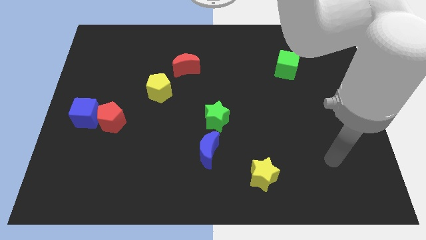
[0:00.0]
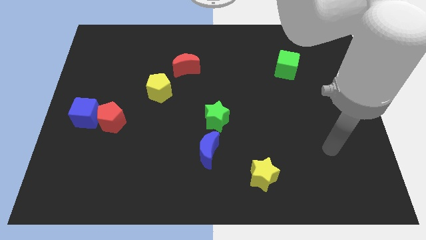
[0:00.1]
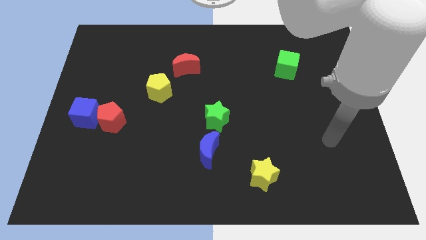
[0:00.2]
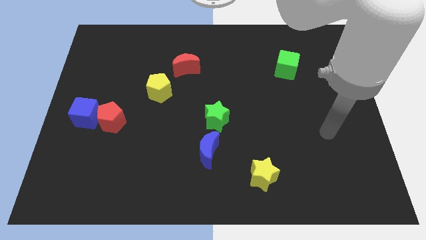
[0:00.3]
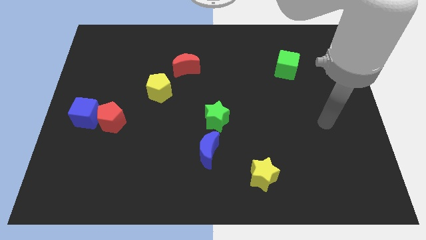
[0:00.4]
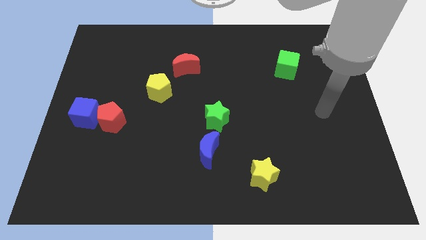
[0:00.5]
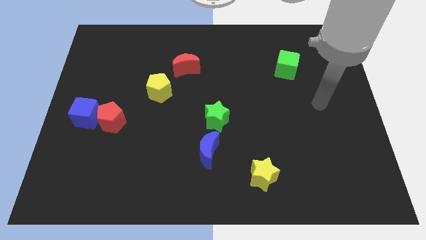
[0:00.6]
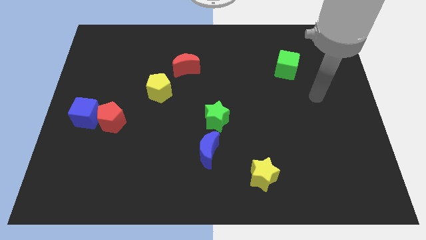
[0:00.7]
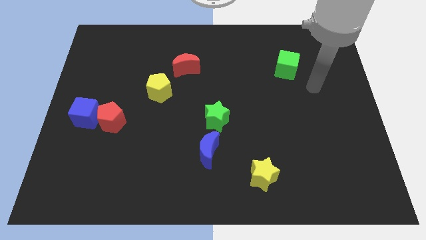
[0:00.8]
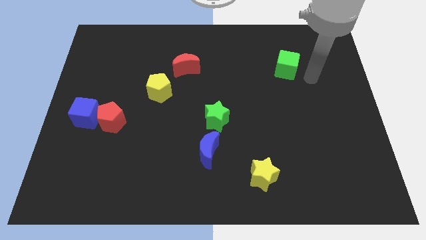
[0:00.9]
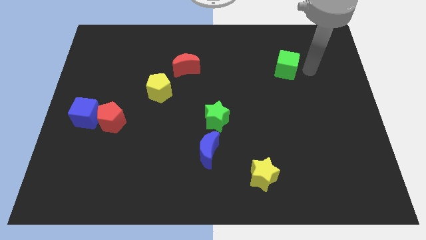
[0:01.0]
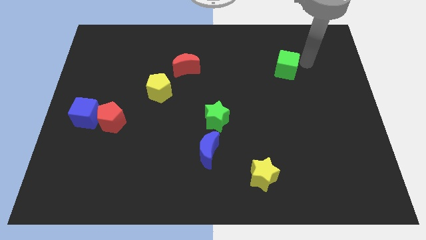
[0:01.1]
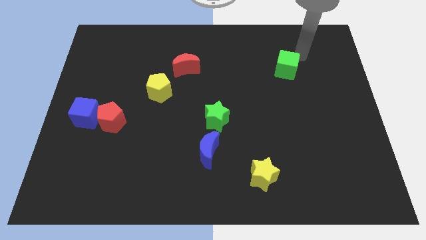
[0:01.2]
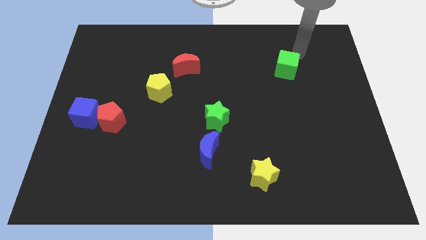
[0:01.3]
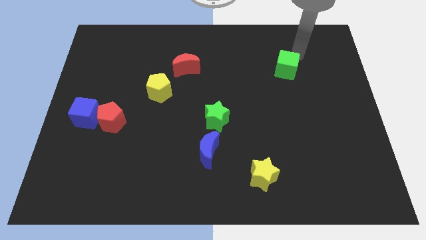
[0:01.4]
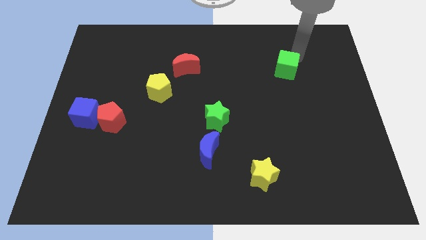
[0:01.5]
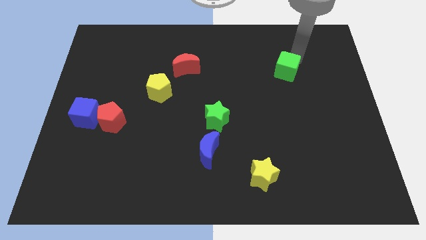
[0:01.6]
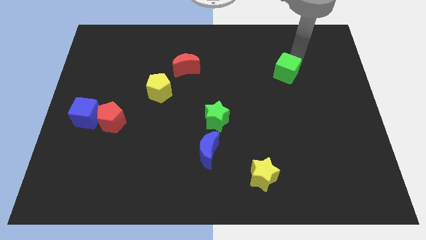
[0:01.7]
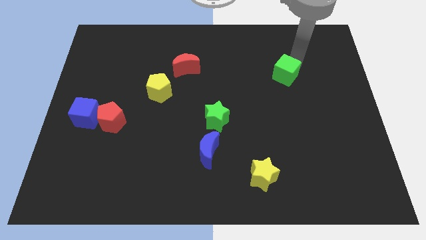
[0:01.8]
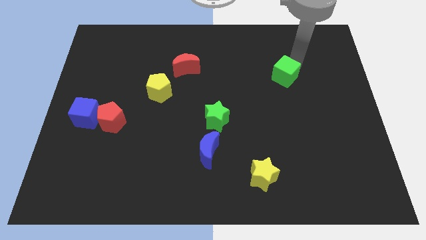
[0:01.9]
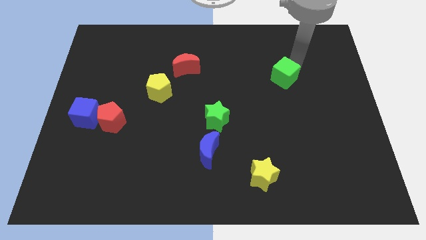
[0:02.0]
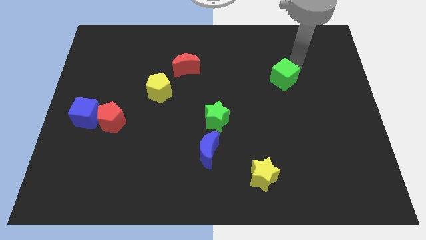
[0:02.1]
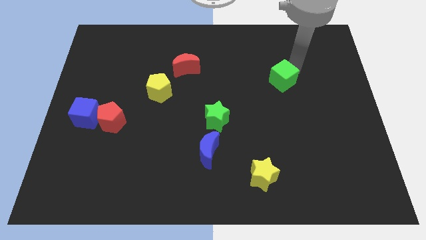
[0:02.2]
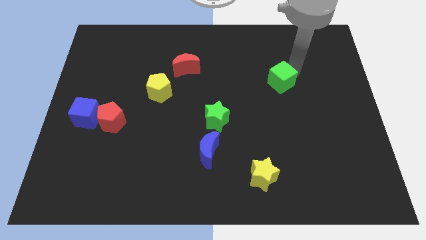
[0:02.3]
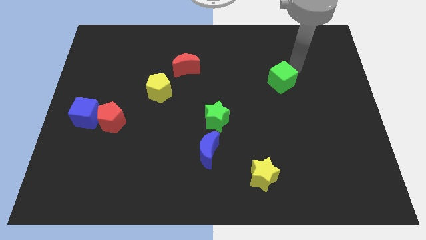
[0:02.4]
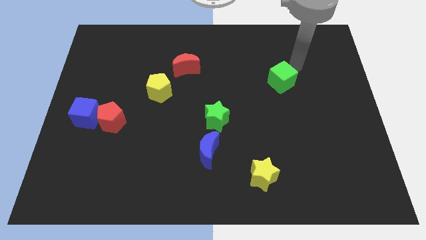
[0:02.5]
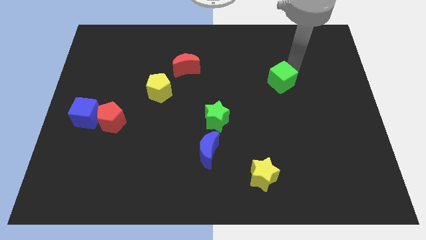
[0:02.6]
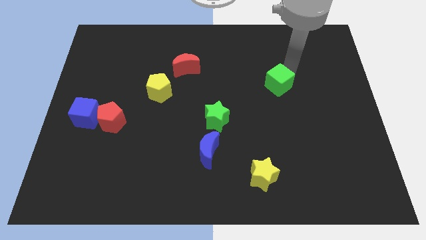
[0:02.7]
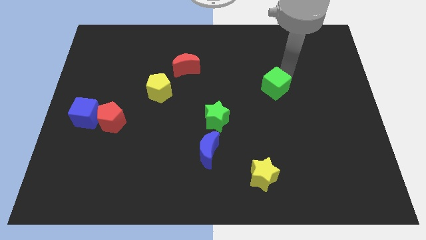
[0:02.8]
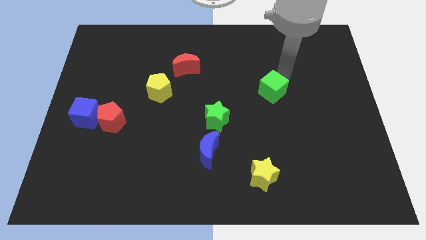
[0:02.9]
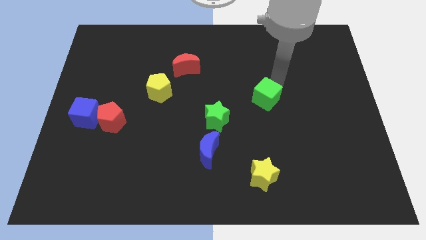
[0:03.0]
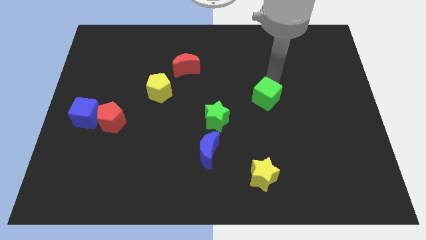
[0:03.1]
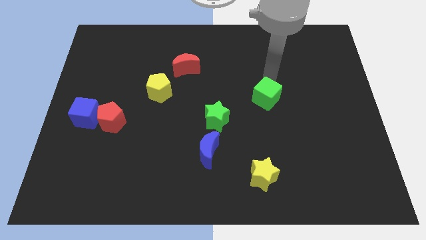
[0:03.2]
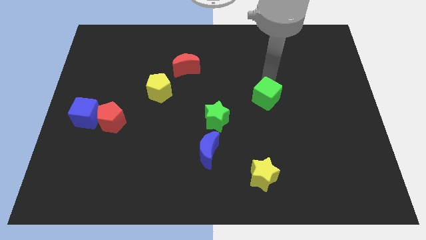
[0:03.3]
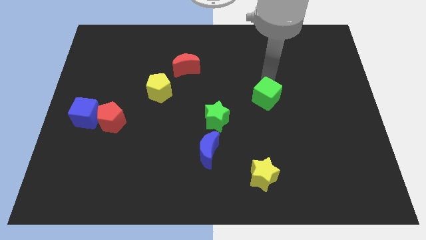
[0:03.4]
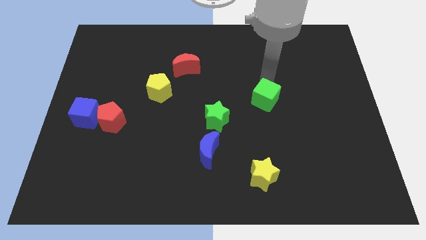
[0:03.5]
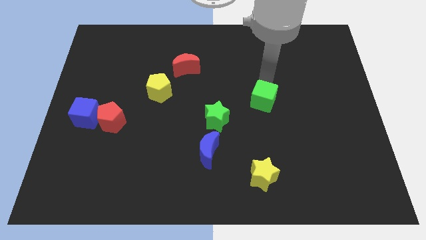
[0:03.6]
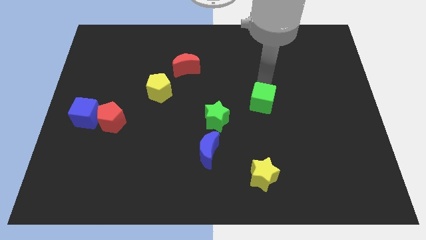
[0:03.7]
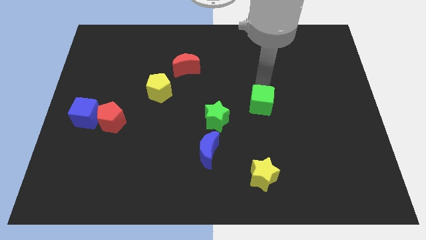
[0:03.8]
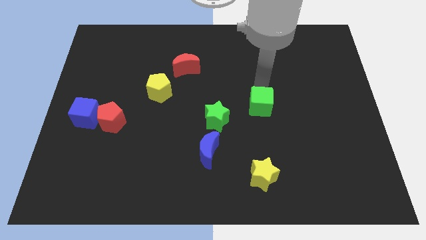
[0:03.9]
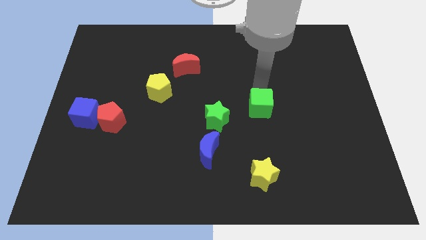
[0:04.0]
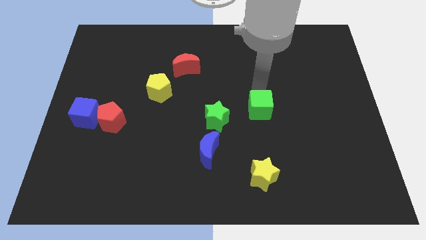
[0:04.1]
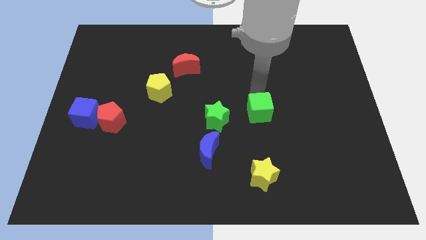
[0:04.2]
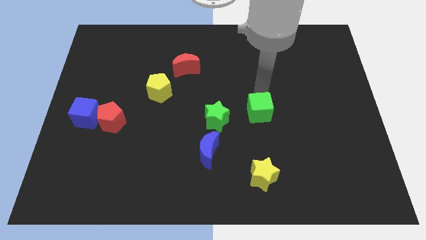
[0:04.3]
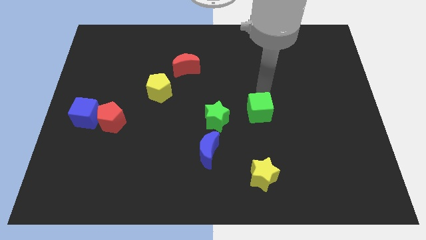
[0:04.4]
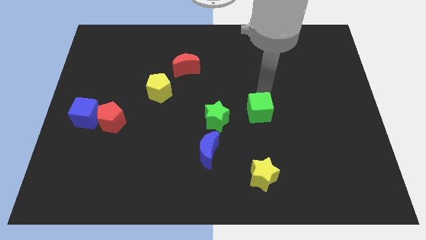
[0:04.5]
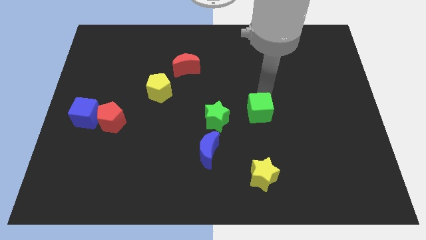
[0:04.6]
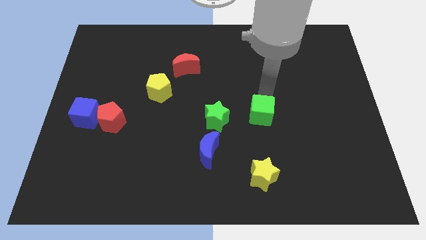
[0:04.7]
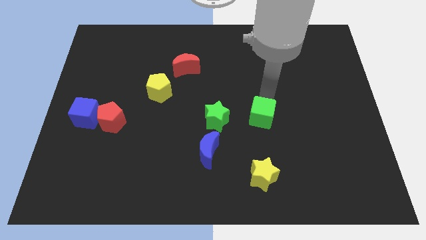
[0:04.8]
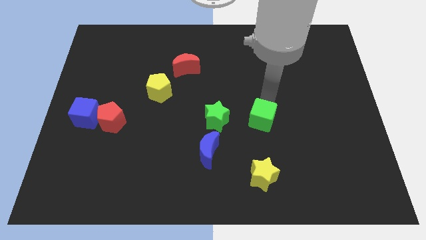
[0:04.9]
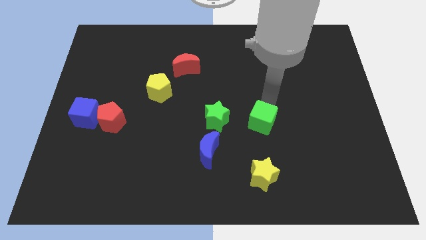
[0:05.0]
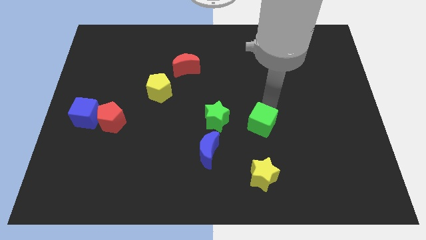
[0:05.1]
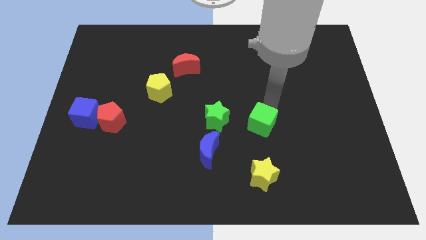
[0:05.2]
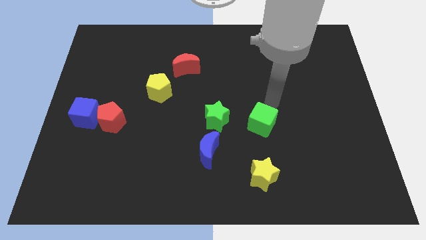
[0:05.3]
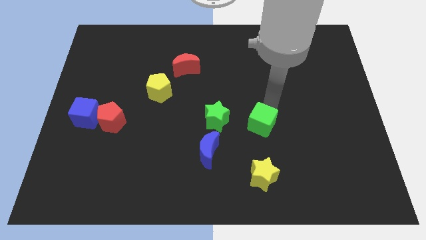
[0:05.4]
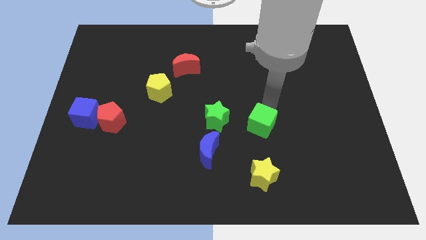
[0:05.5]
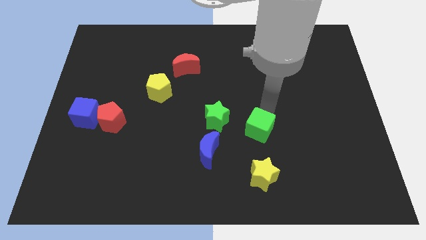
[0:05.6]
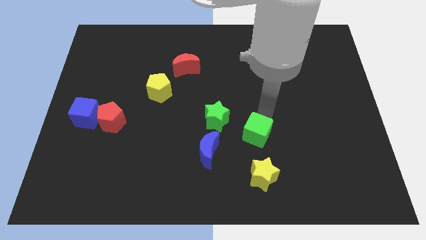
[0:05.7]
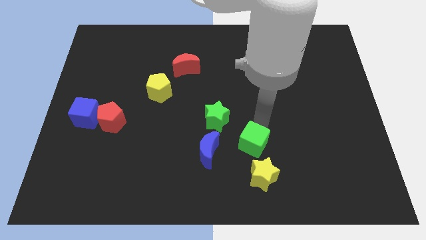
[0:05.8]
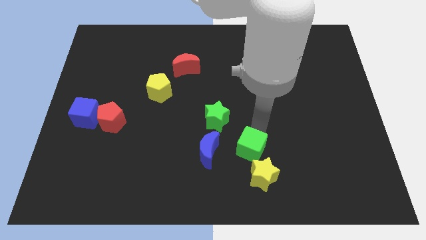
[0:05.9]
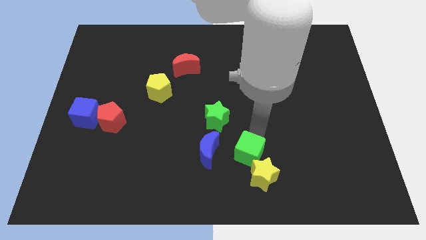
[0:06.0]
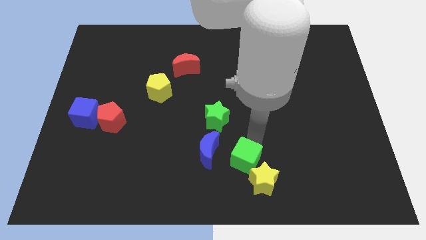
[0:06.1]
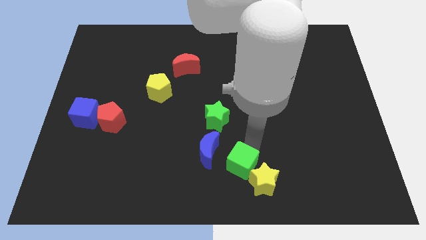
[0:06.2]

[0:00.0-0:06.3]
push the green cube to the bottom side

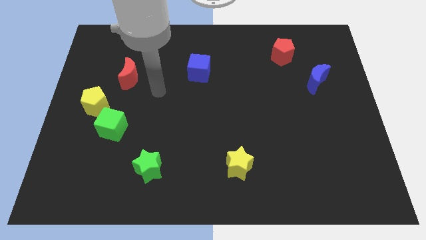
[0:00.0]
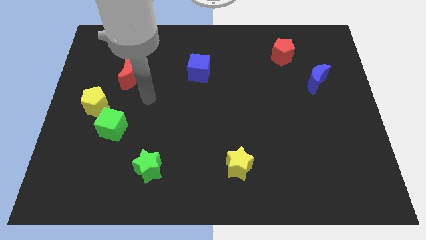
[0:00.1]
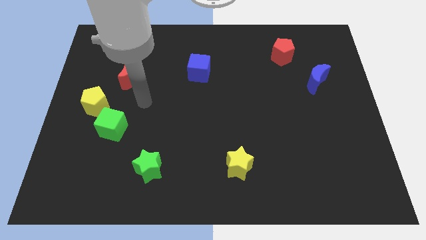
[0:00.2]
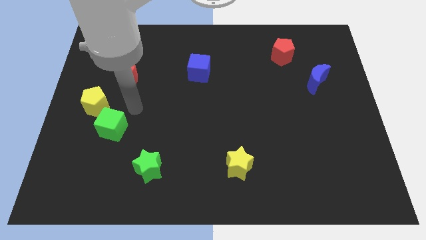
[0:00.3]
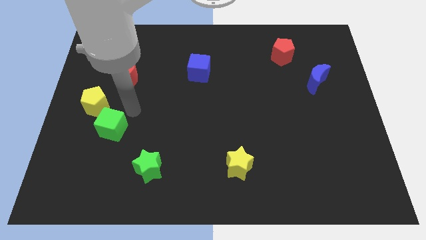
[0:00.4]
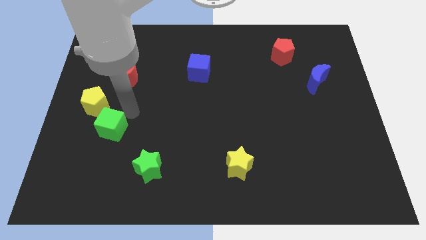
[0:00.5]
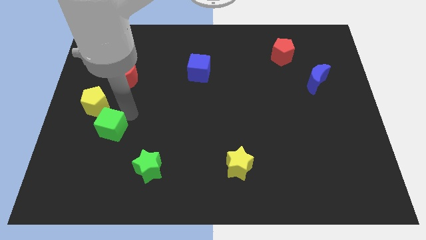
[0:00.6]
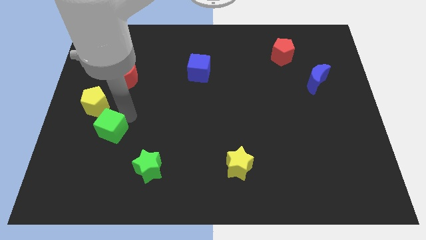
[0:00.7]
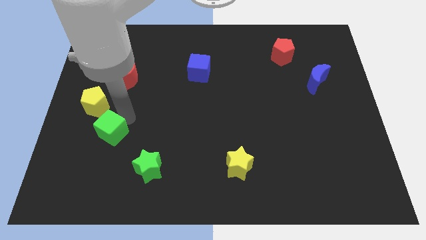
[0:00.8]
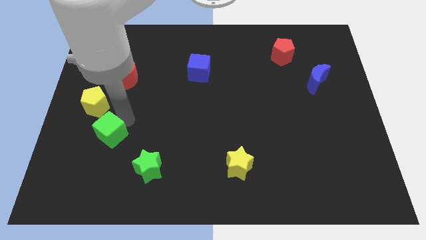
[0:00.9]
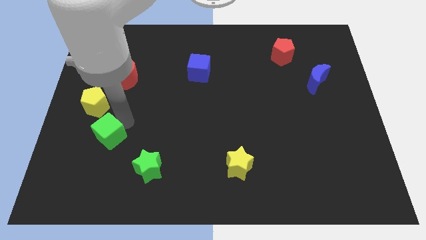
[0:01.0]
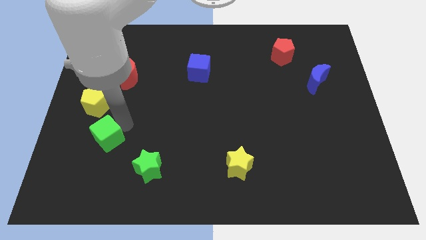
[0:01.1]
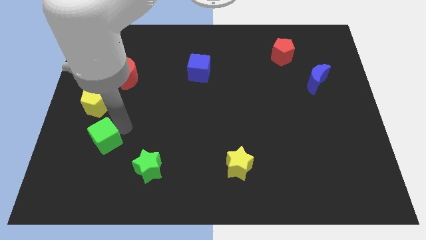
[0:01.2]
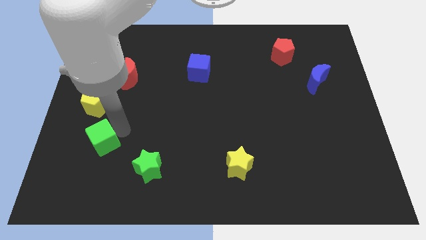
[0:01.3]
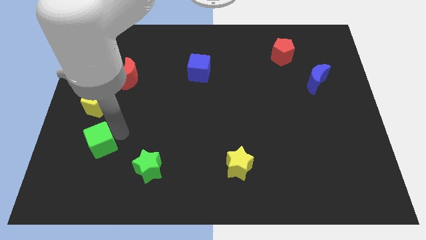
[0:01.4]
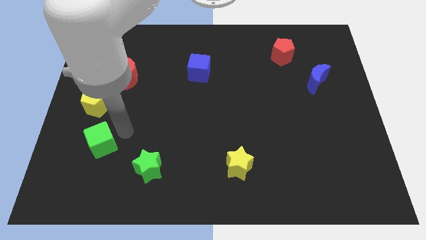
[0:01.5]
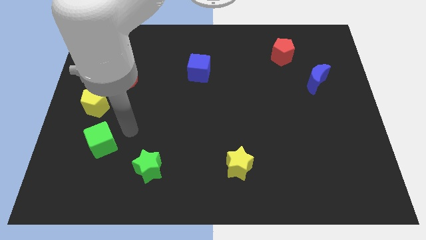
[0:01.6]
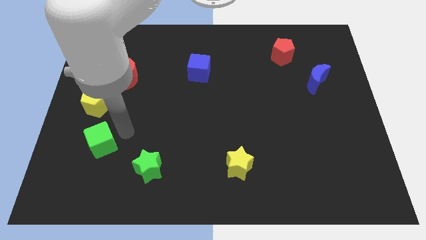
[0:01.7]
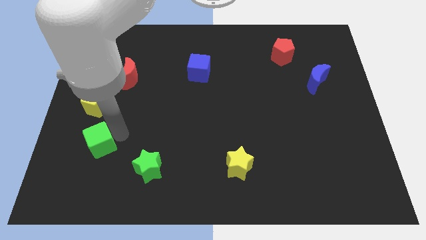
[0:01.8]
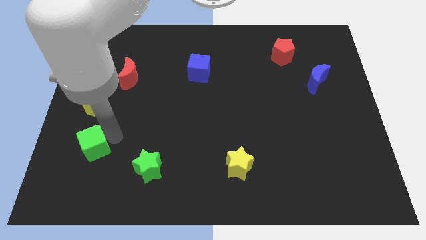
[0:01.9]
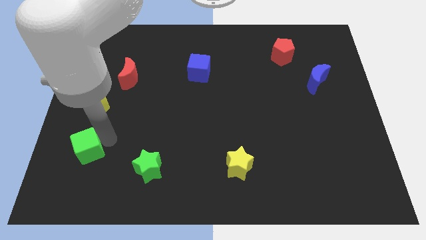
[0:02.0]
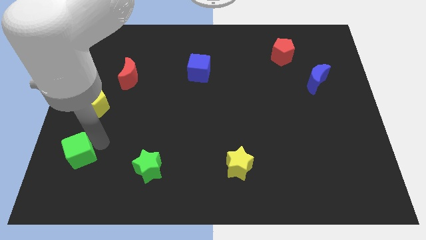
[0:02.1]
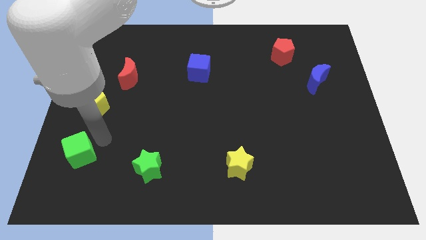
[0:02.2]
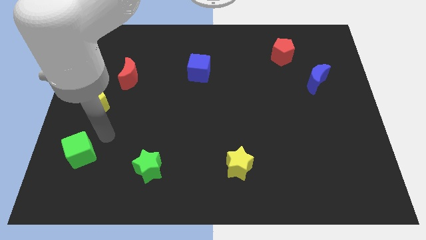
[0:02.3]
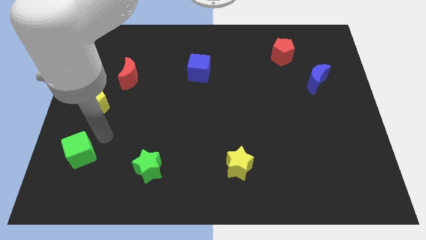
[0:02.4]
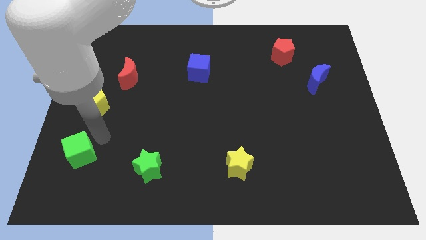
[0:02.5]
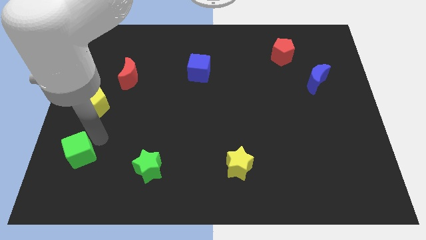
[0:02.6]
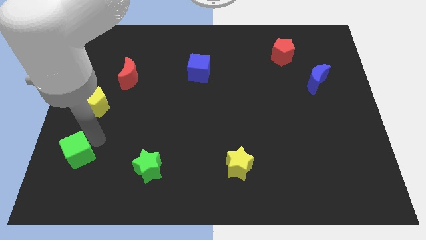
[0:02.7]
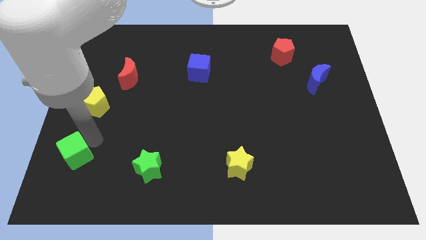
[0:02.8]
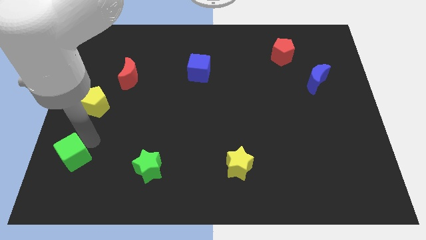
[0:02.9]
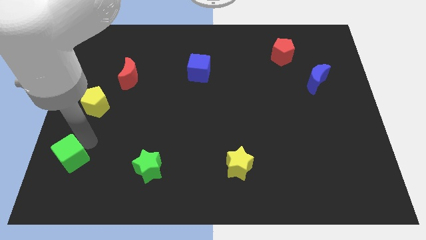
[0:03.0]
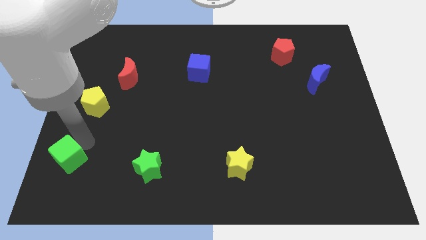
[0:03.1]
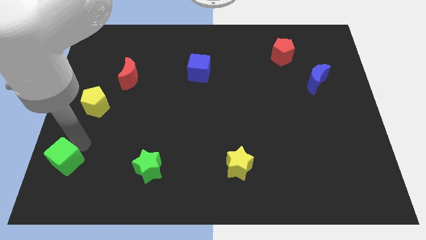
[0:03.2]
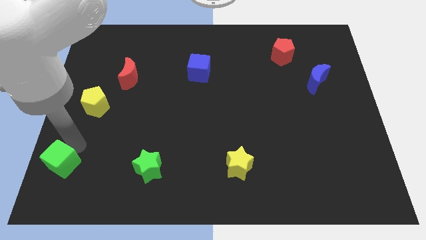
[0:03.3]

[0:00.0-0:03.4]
push the green cube to the bottom left
